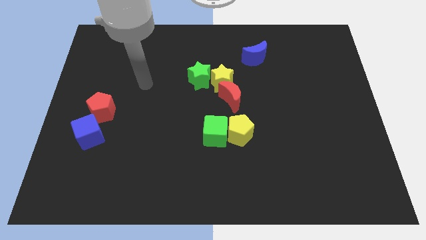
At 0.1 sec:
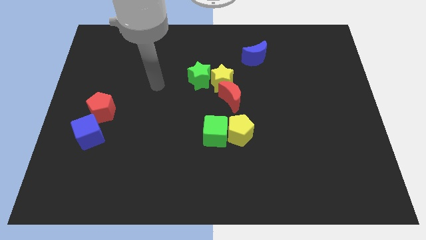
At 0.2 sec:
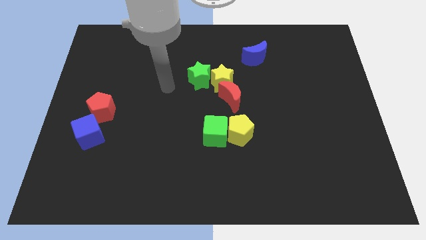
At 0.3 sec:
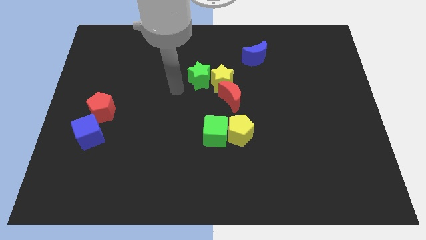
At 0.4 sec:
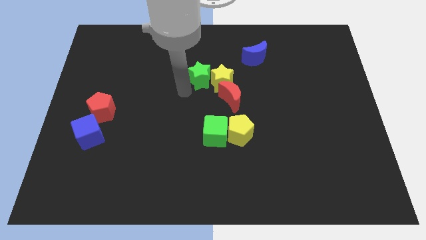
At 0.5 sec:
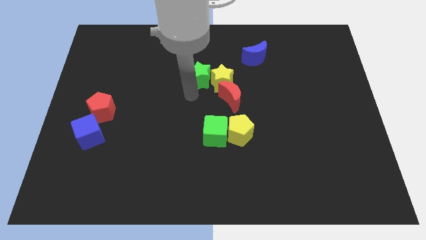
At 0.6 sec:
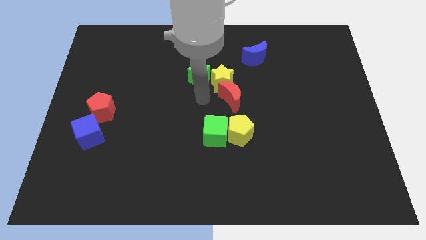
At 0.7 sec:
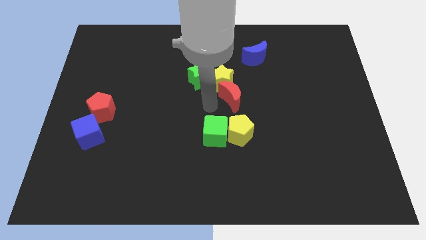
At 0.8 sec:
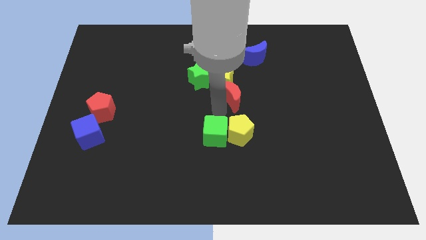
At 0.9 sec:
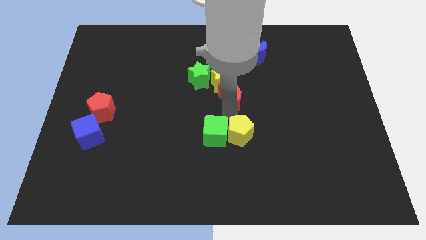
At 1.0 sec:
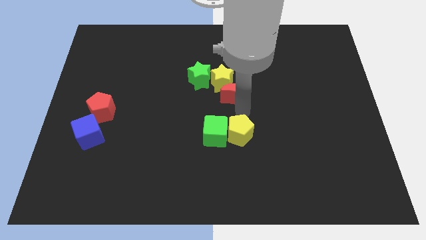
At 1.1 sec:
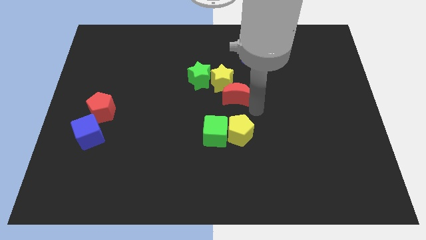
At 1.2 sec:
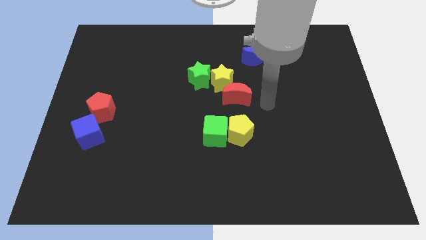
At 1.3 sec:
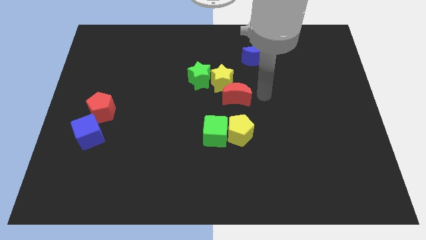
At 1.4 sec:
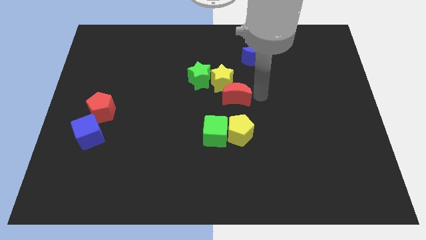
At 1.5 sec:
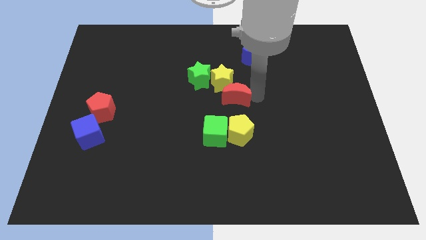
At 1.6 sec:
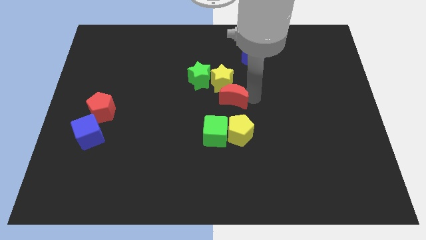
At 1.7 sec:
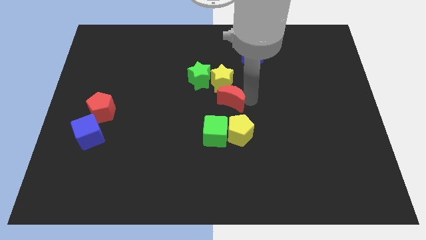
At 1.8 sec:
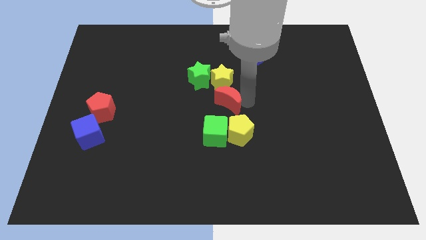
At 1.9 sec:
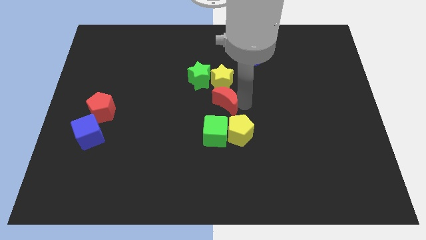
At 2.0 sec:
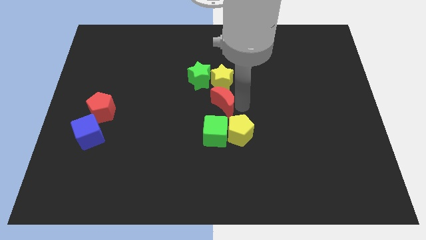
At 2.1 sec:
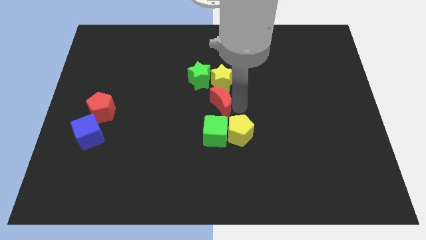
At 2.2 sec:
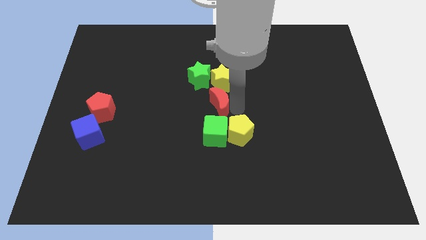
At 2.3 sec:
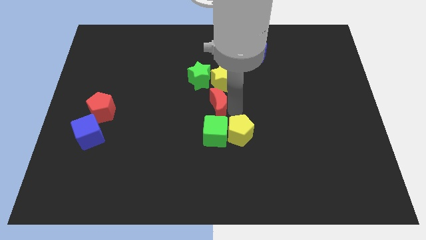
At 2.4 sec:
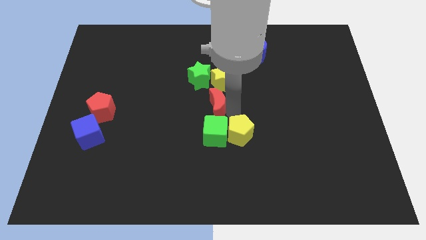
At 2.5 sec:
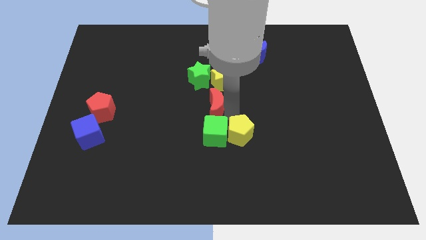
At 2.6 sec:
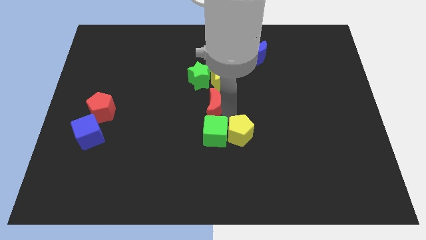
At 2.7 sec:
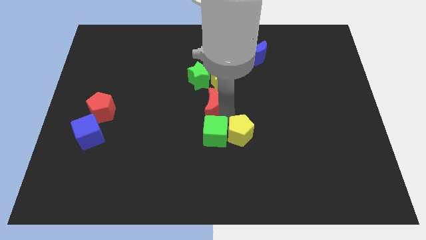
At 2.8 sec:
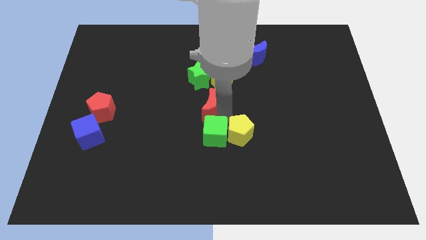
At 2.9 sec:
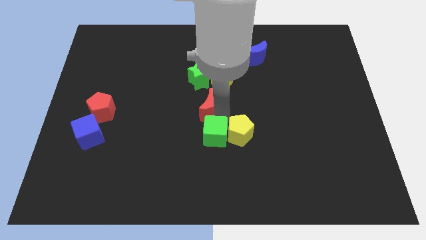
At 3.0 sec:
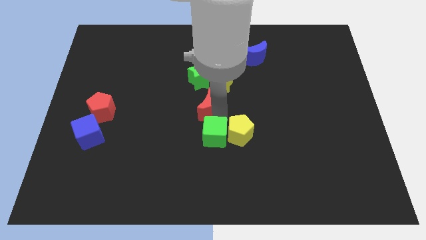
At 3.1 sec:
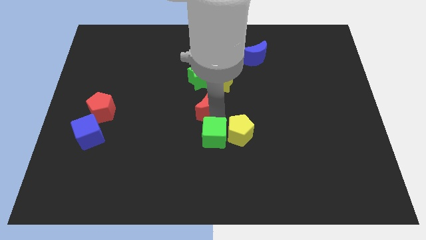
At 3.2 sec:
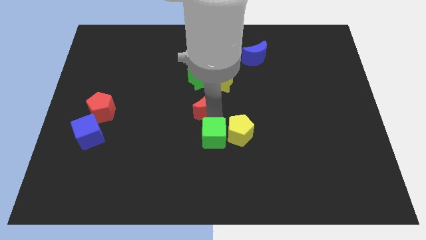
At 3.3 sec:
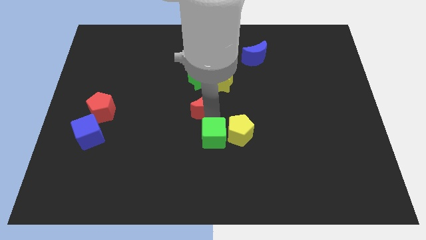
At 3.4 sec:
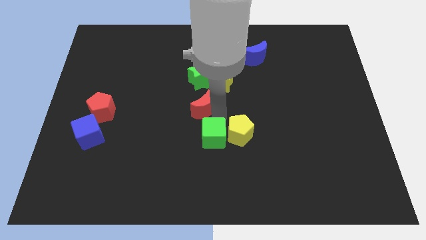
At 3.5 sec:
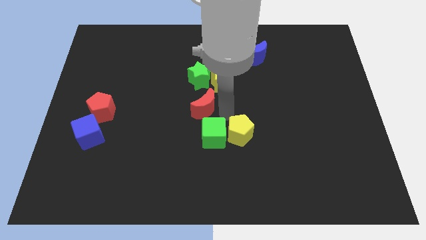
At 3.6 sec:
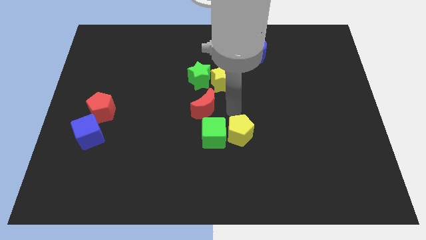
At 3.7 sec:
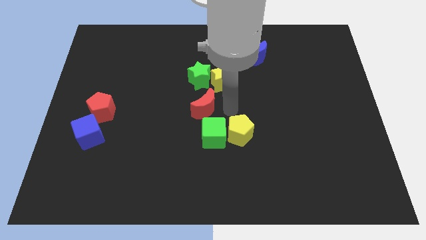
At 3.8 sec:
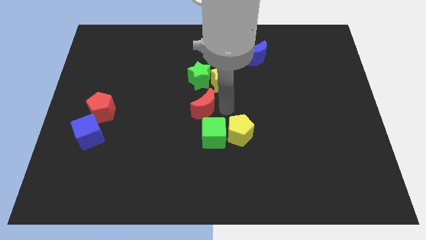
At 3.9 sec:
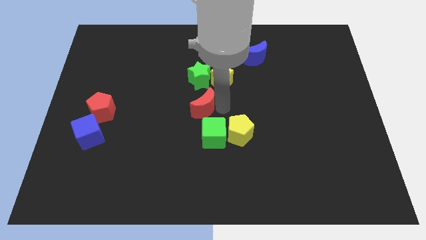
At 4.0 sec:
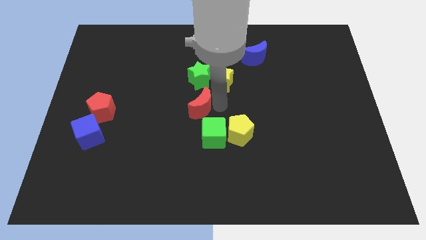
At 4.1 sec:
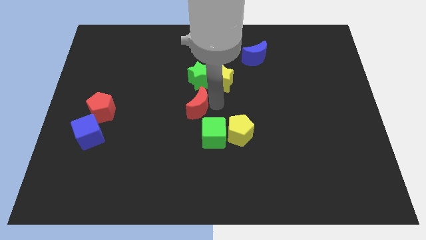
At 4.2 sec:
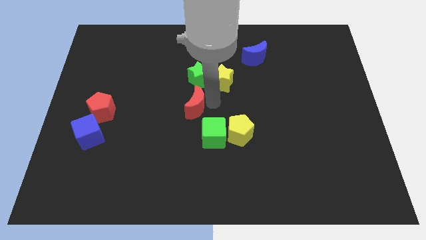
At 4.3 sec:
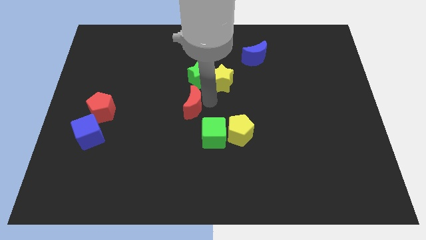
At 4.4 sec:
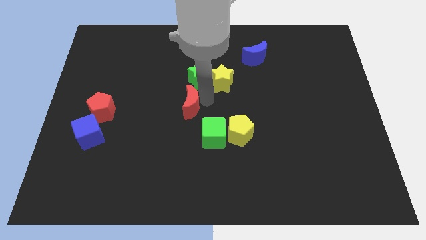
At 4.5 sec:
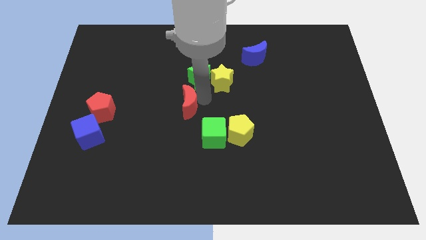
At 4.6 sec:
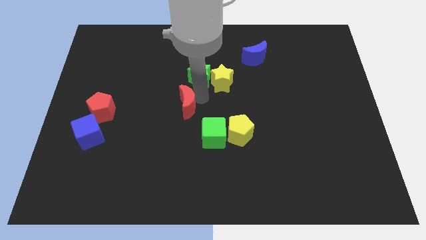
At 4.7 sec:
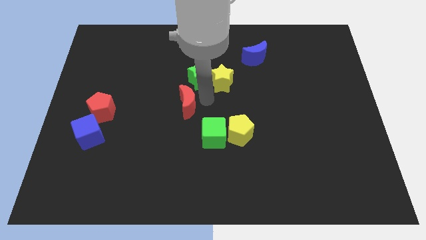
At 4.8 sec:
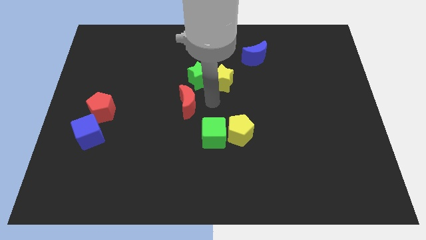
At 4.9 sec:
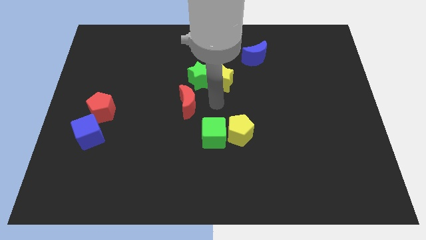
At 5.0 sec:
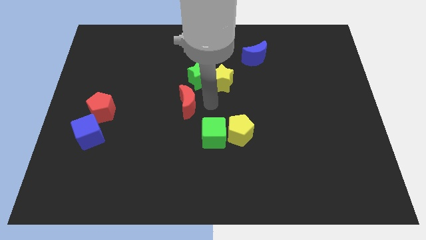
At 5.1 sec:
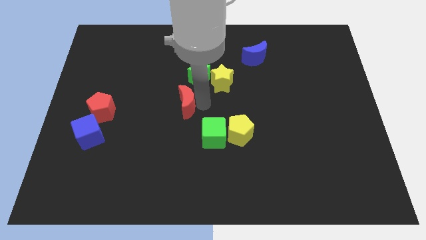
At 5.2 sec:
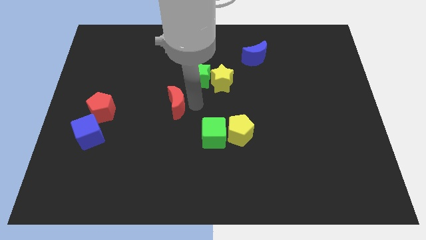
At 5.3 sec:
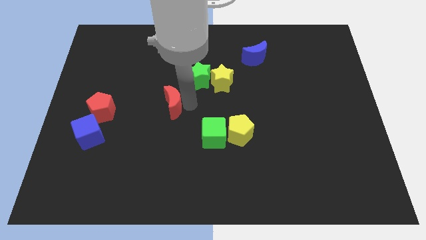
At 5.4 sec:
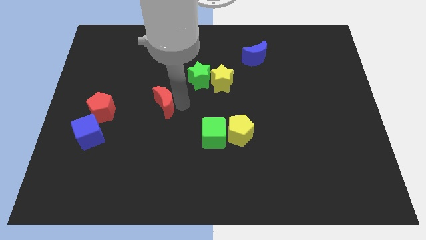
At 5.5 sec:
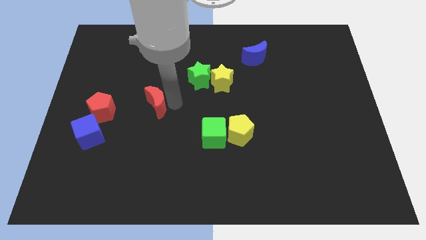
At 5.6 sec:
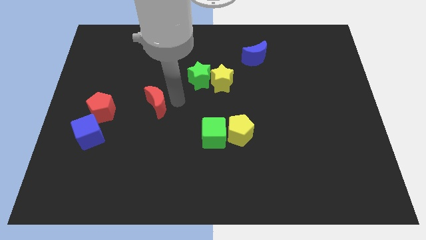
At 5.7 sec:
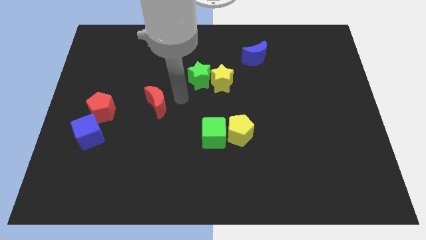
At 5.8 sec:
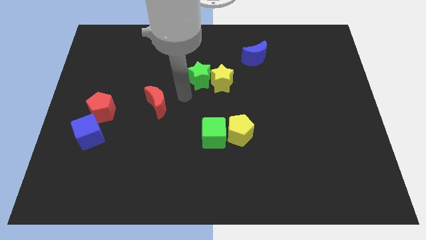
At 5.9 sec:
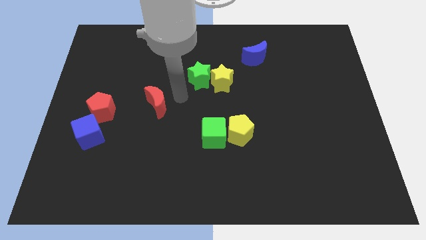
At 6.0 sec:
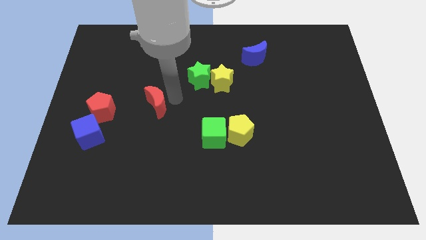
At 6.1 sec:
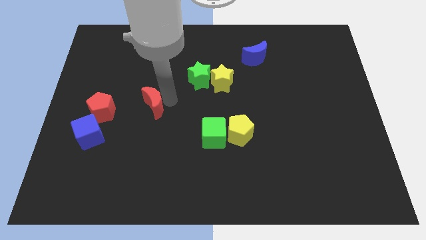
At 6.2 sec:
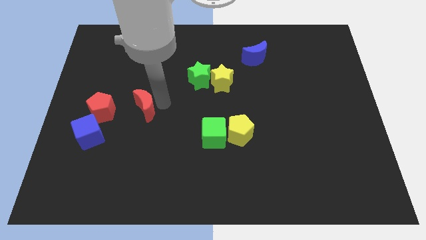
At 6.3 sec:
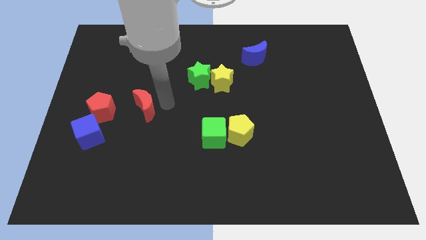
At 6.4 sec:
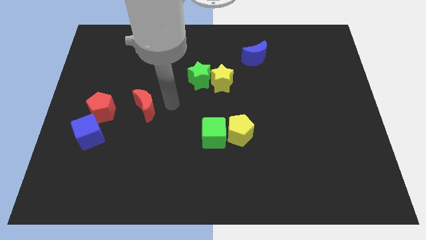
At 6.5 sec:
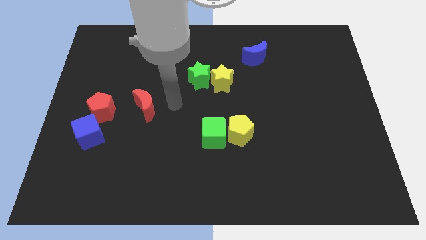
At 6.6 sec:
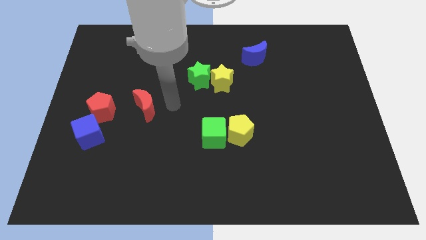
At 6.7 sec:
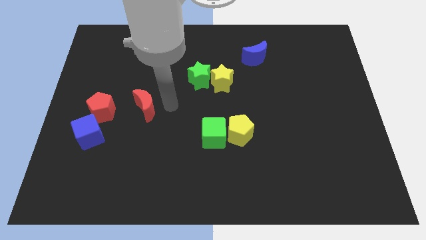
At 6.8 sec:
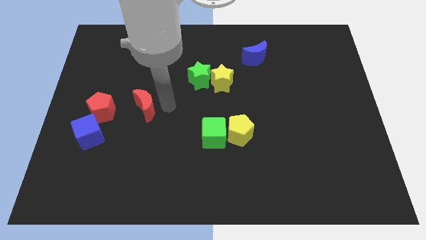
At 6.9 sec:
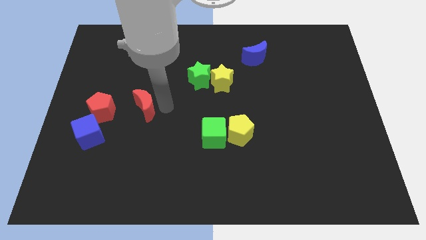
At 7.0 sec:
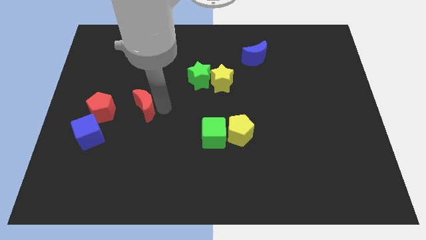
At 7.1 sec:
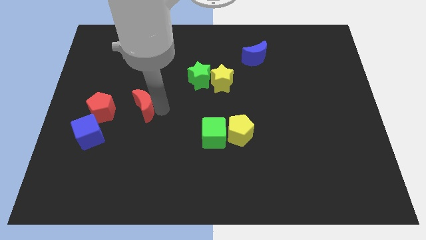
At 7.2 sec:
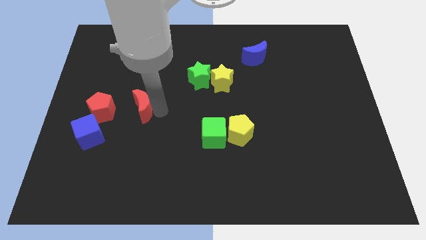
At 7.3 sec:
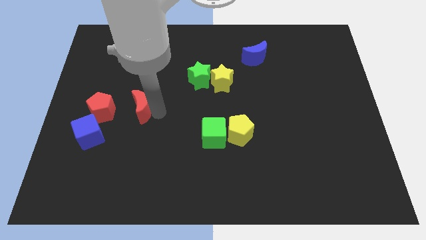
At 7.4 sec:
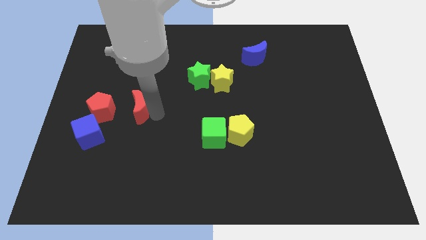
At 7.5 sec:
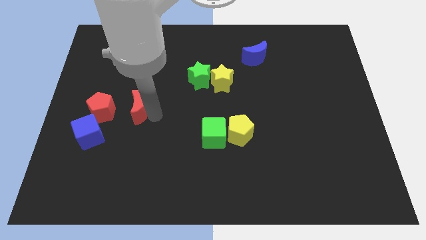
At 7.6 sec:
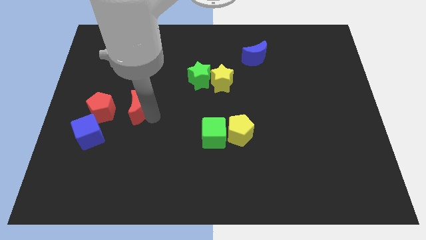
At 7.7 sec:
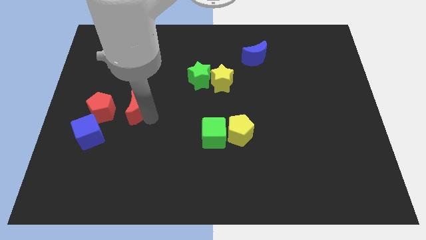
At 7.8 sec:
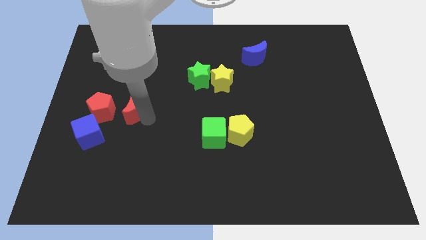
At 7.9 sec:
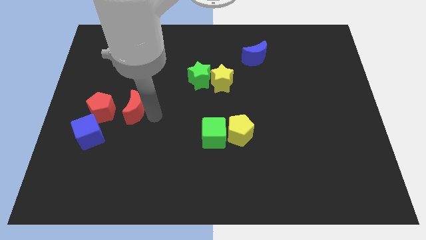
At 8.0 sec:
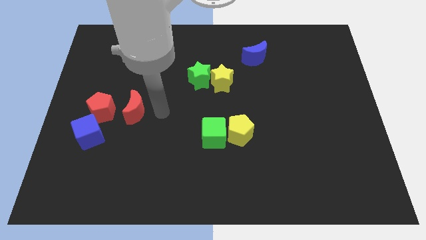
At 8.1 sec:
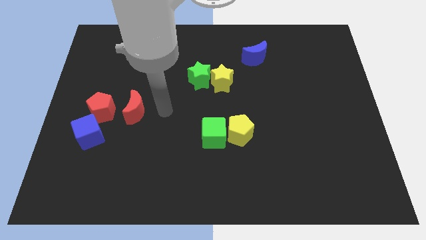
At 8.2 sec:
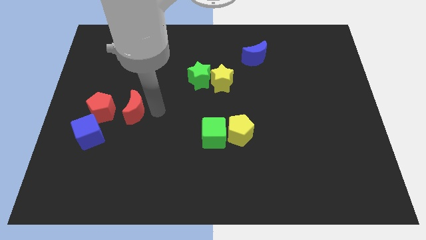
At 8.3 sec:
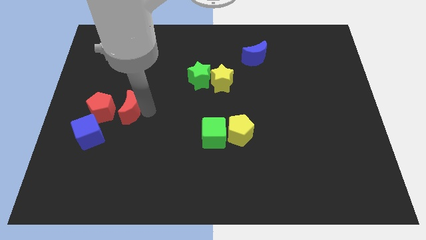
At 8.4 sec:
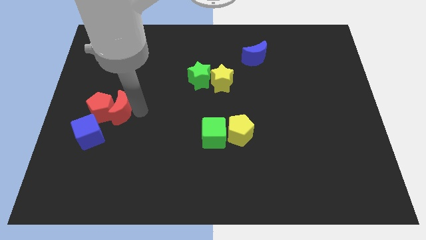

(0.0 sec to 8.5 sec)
move the red moon close to the red pentagon
